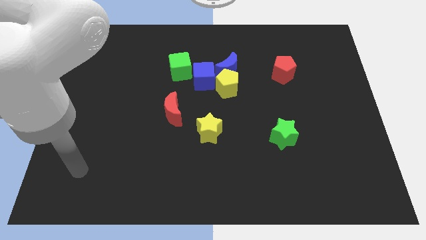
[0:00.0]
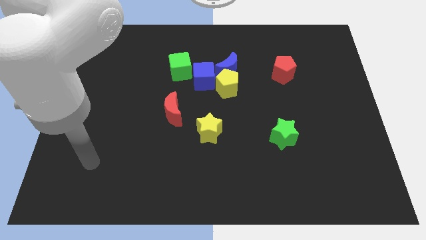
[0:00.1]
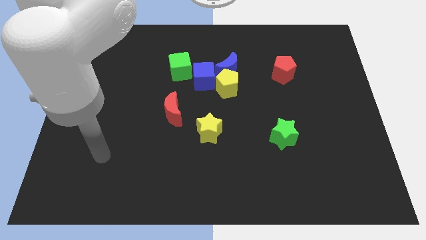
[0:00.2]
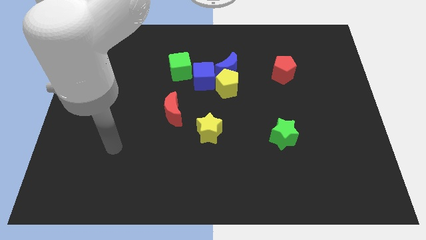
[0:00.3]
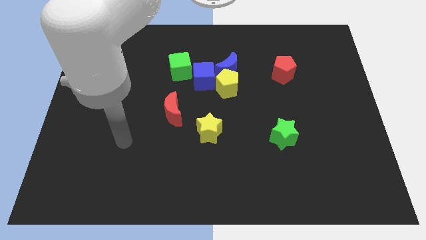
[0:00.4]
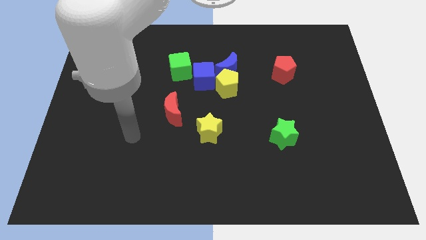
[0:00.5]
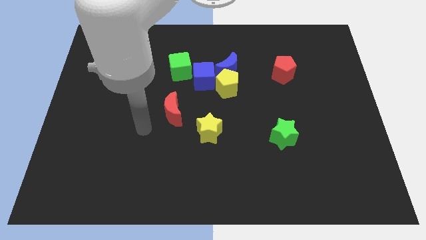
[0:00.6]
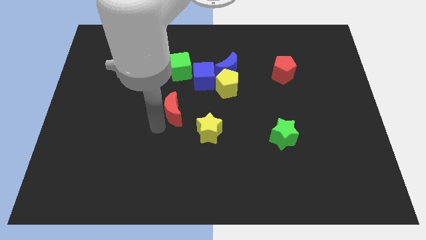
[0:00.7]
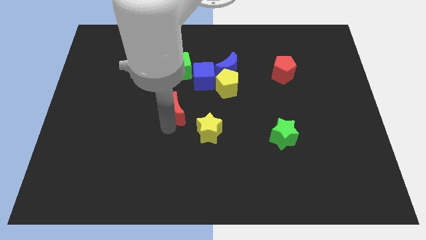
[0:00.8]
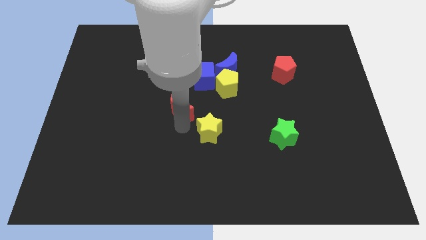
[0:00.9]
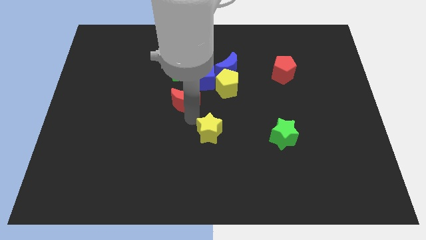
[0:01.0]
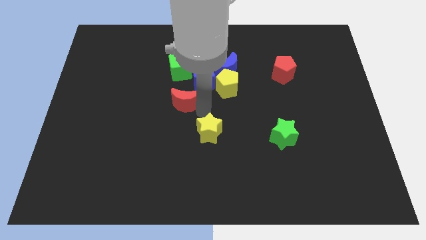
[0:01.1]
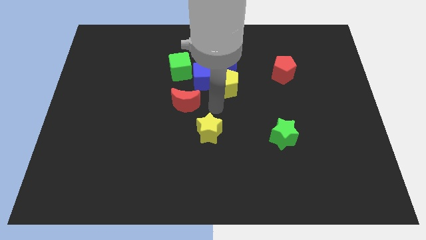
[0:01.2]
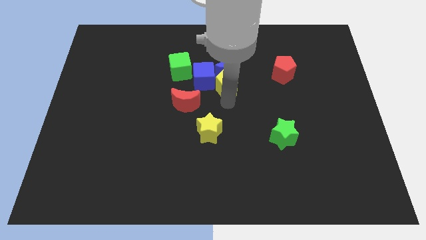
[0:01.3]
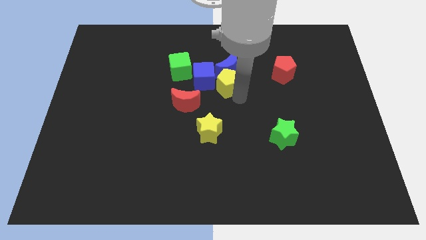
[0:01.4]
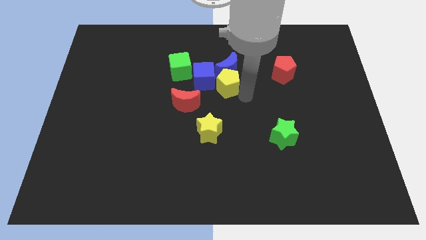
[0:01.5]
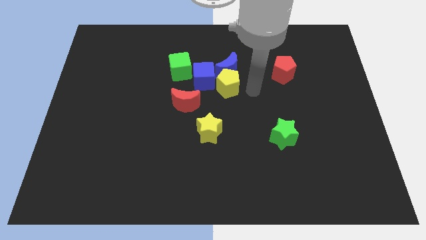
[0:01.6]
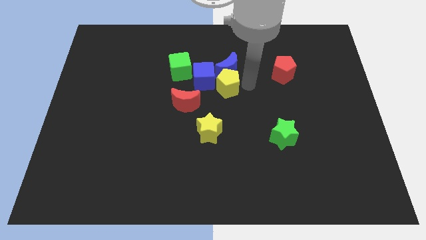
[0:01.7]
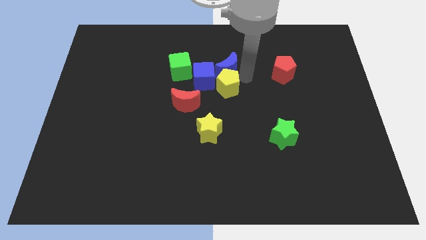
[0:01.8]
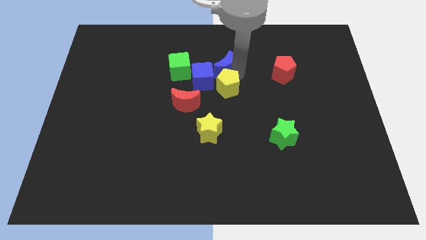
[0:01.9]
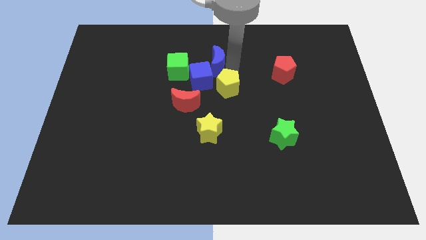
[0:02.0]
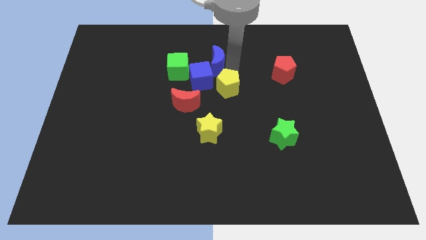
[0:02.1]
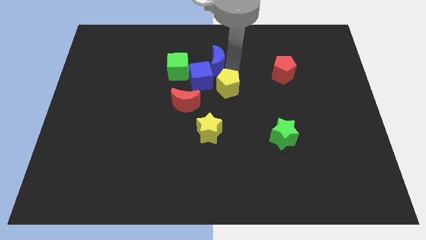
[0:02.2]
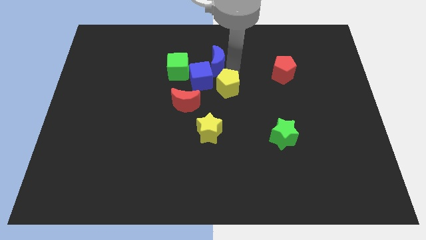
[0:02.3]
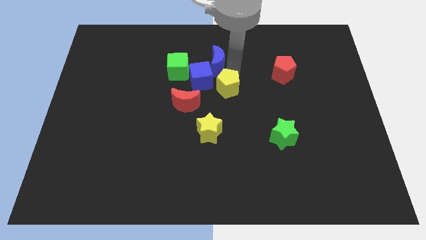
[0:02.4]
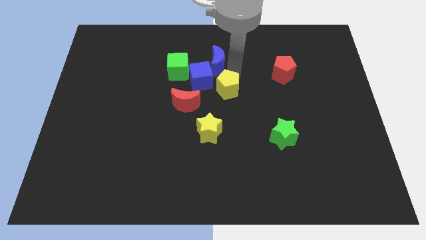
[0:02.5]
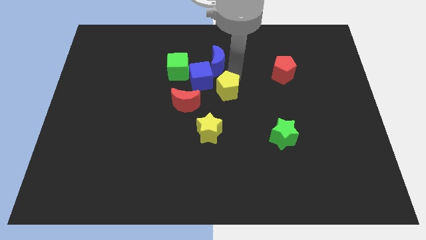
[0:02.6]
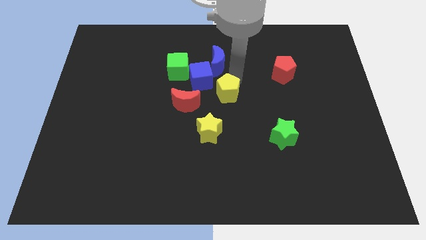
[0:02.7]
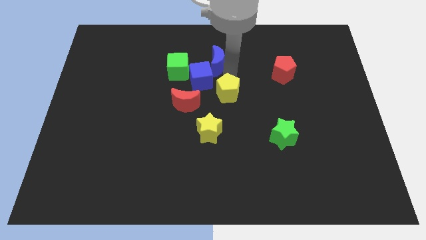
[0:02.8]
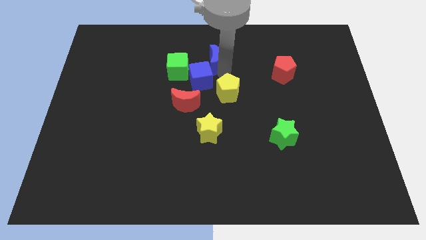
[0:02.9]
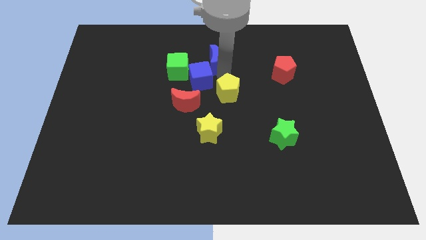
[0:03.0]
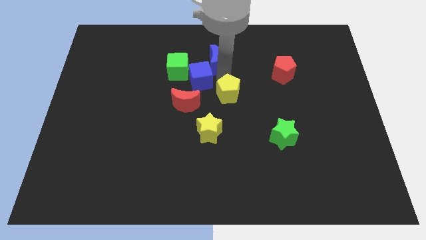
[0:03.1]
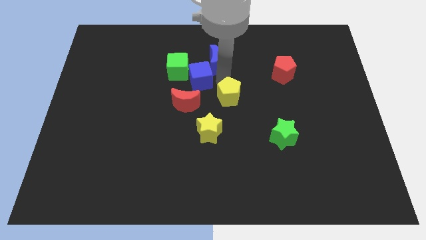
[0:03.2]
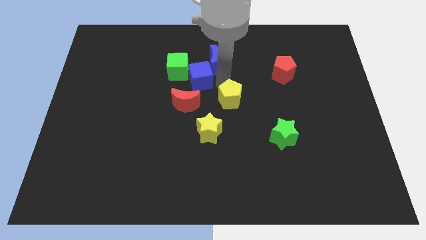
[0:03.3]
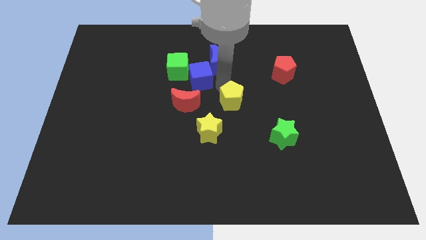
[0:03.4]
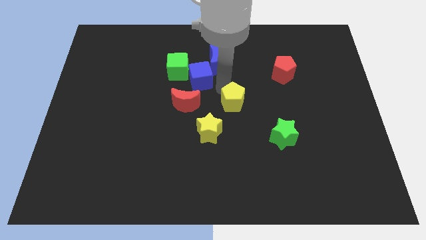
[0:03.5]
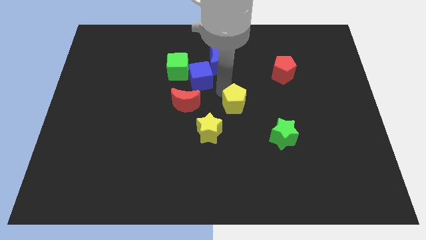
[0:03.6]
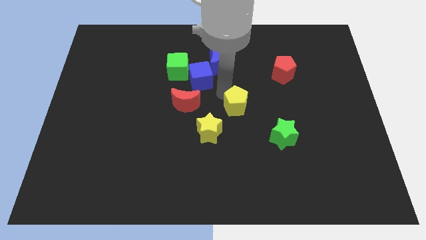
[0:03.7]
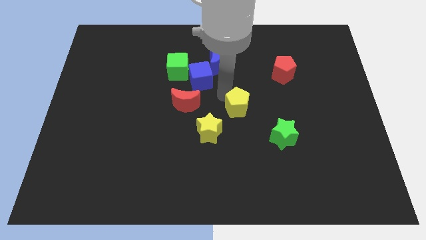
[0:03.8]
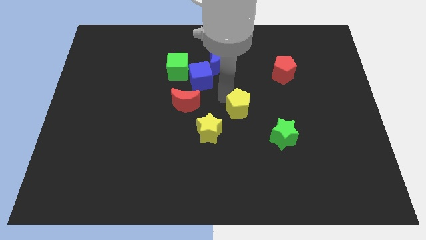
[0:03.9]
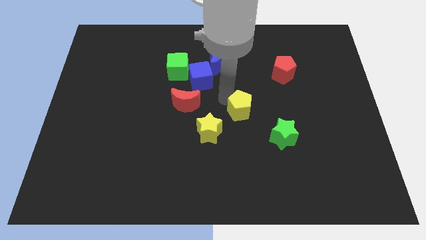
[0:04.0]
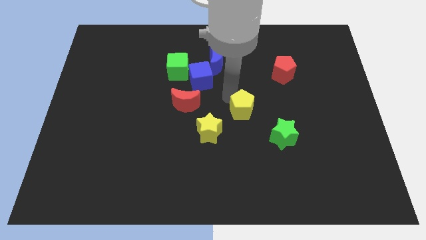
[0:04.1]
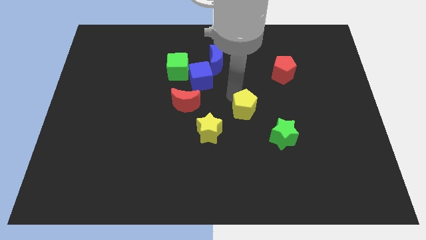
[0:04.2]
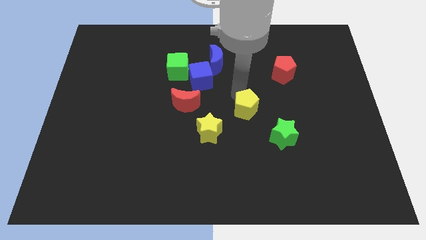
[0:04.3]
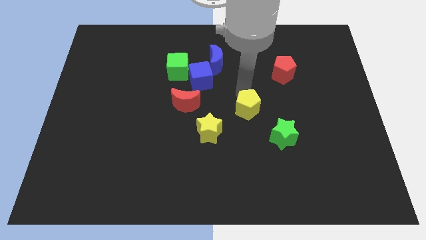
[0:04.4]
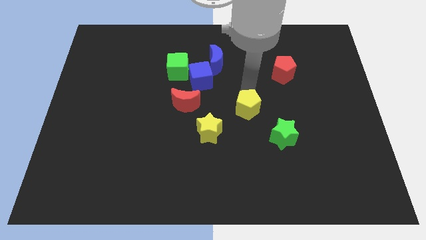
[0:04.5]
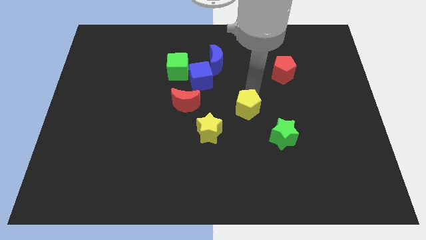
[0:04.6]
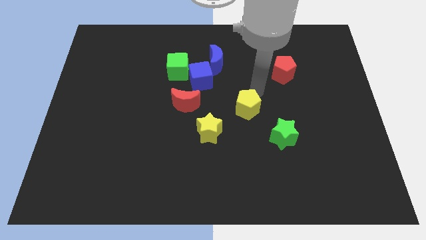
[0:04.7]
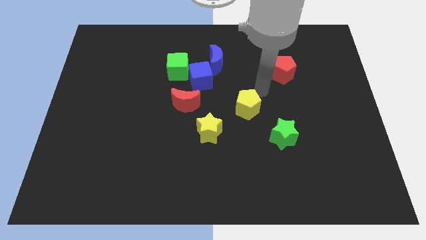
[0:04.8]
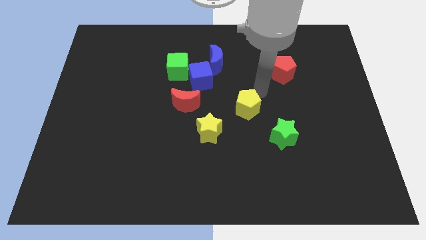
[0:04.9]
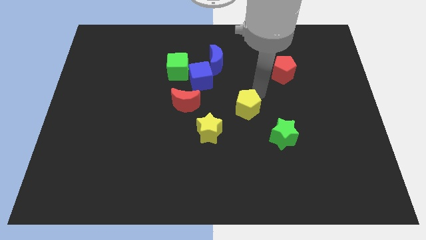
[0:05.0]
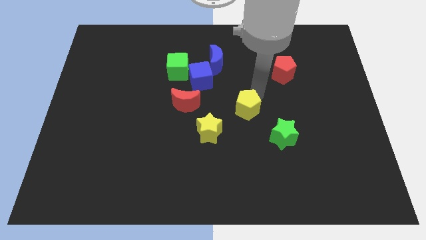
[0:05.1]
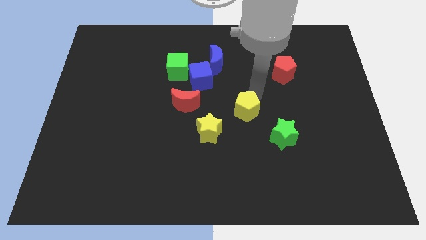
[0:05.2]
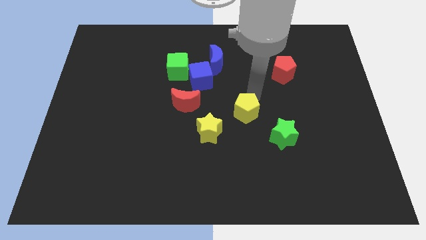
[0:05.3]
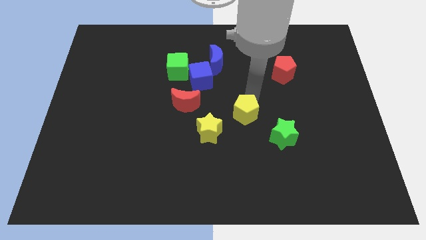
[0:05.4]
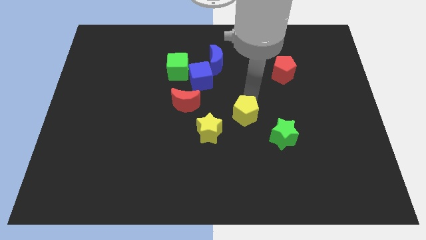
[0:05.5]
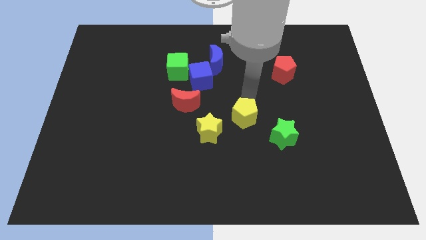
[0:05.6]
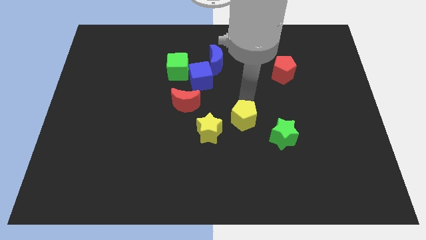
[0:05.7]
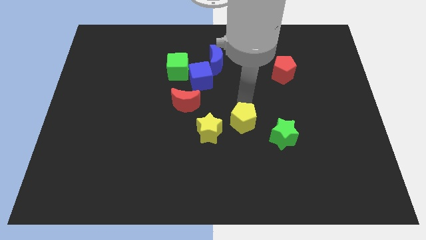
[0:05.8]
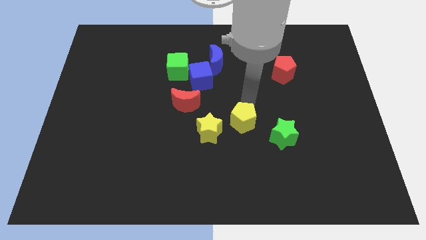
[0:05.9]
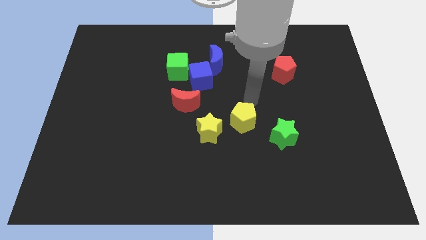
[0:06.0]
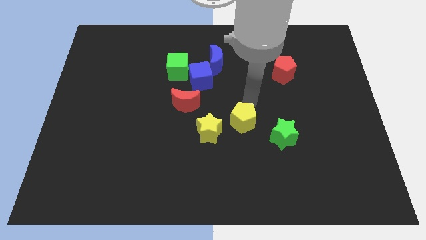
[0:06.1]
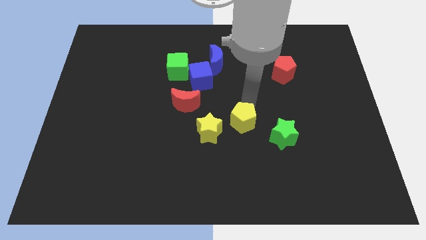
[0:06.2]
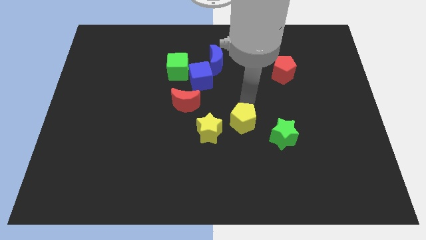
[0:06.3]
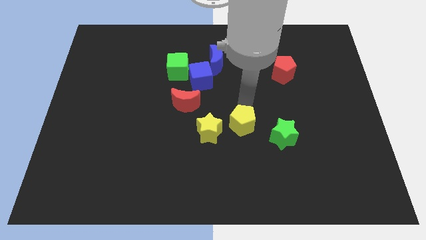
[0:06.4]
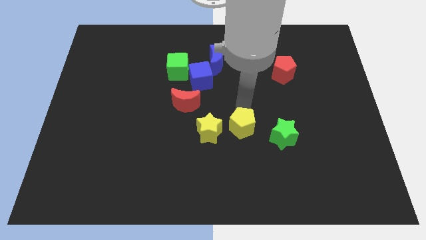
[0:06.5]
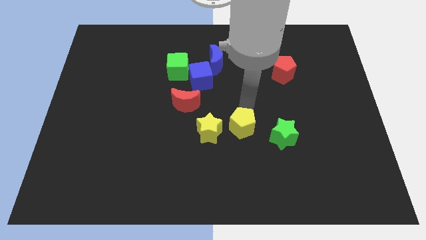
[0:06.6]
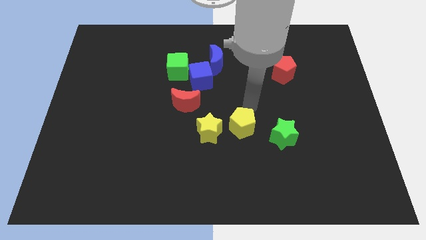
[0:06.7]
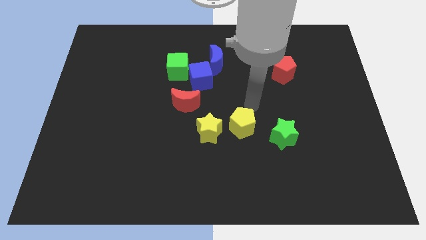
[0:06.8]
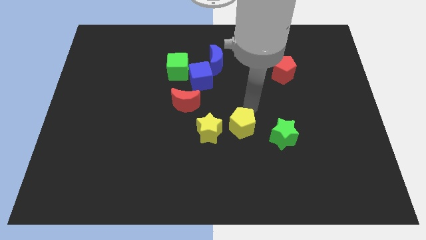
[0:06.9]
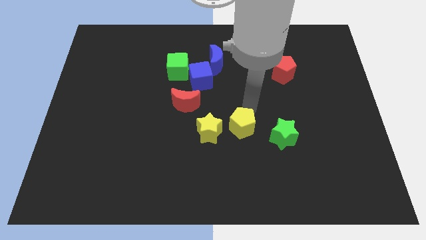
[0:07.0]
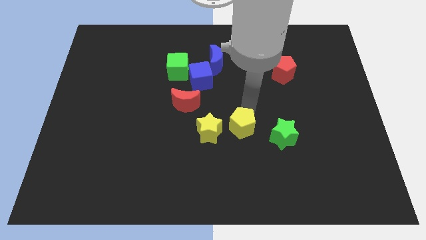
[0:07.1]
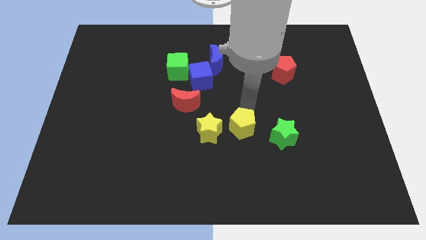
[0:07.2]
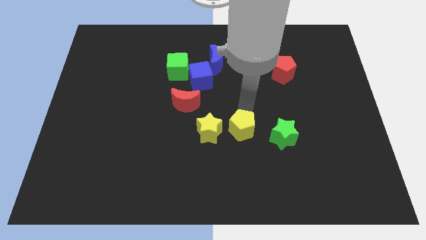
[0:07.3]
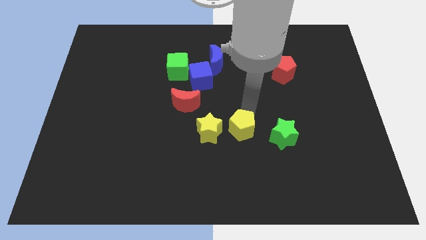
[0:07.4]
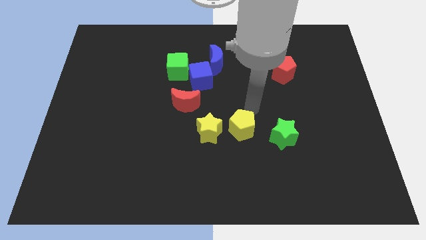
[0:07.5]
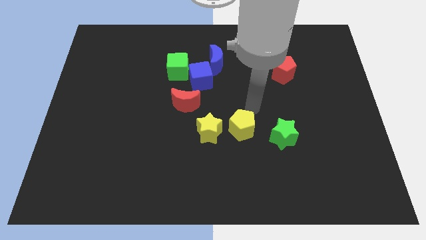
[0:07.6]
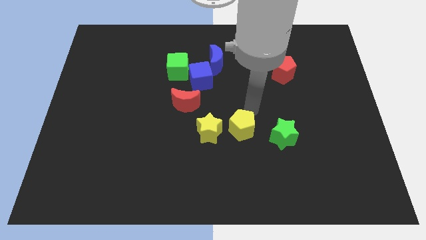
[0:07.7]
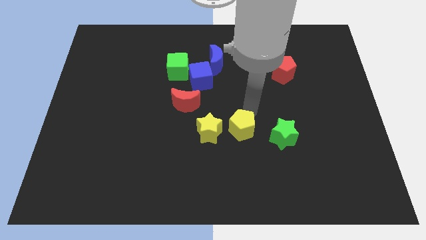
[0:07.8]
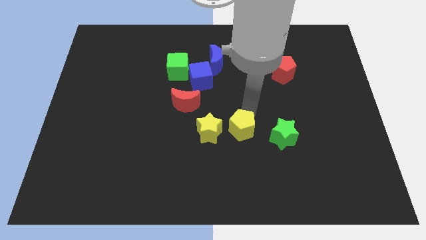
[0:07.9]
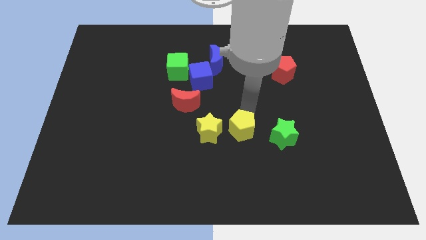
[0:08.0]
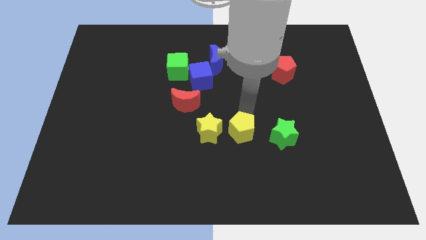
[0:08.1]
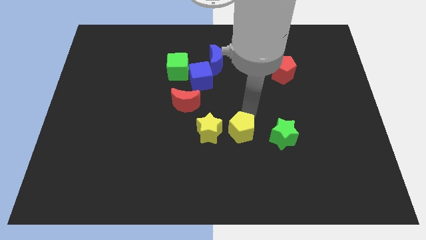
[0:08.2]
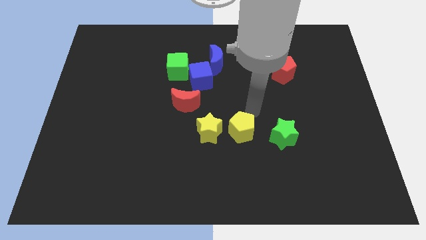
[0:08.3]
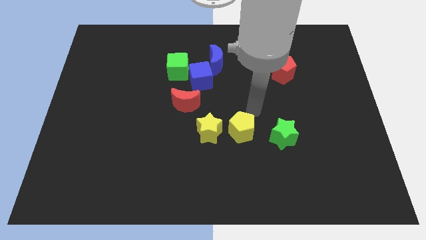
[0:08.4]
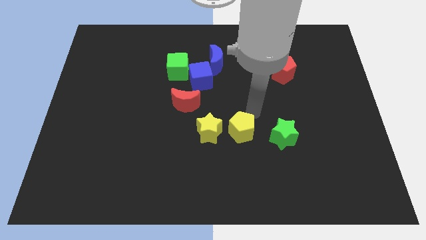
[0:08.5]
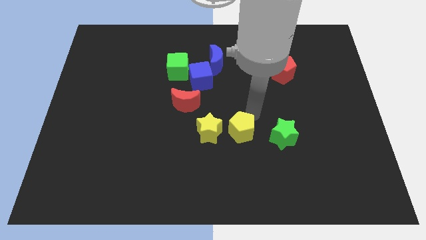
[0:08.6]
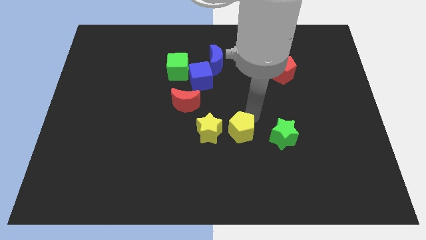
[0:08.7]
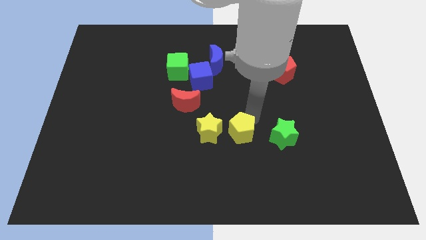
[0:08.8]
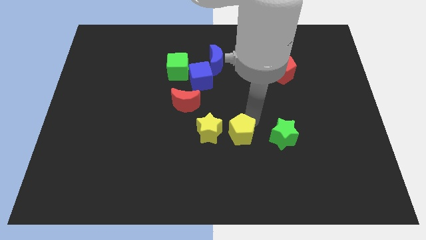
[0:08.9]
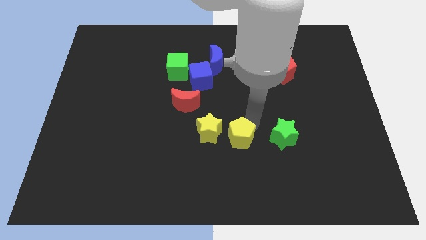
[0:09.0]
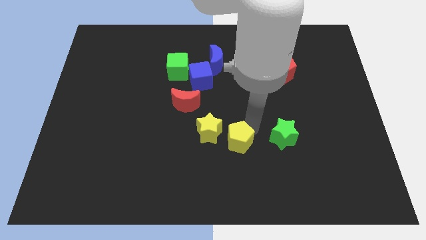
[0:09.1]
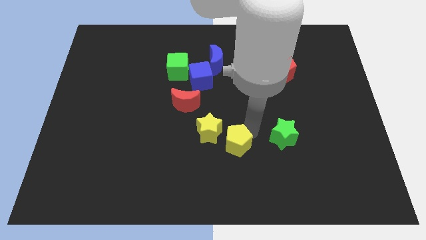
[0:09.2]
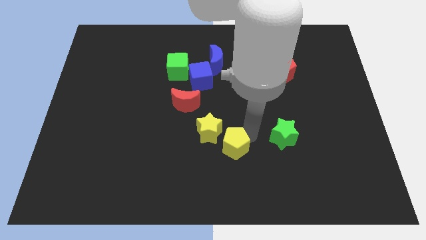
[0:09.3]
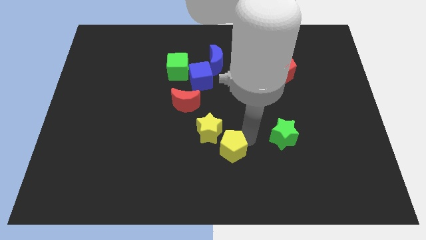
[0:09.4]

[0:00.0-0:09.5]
move the yellow pentagon to the bottom of the yellow star
